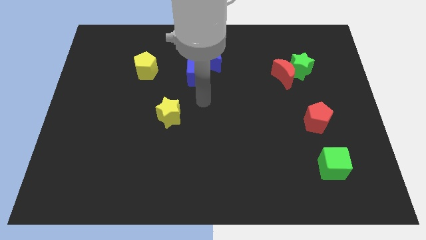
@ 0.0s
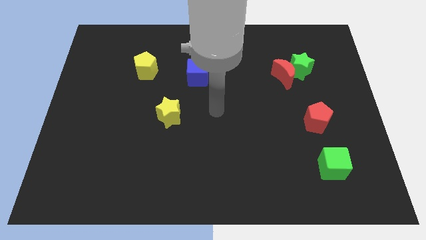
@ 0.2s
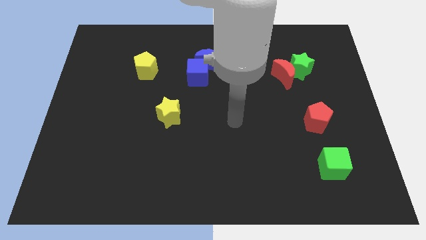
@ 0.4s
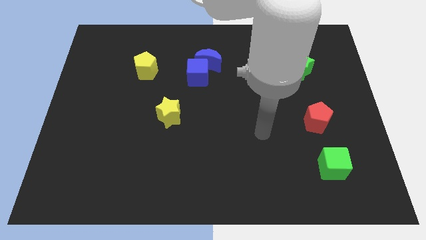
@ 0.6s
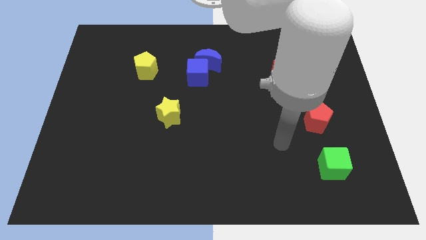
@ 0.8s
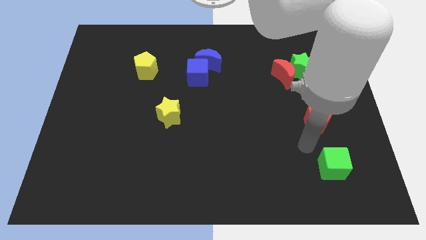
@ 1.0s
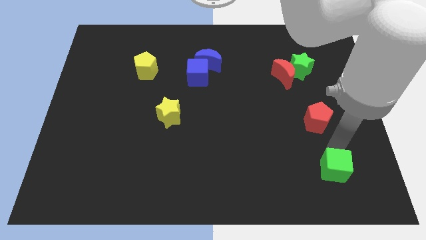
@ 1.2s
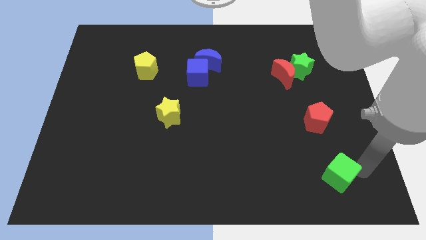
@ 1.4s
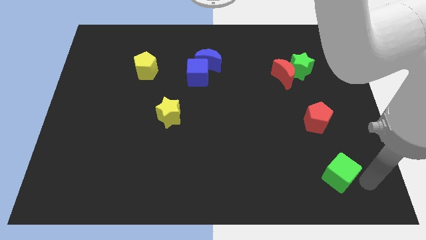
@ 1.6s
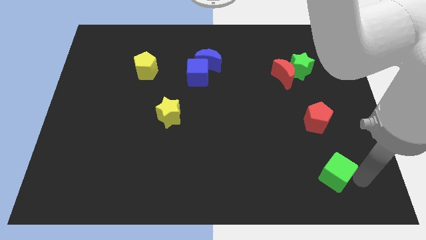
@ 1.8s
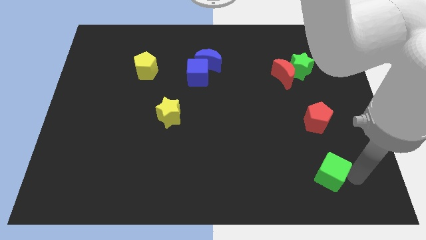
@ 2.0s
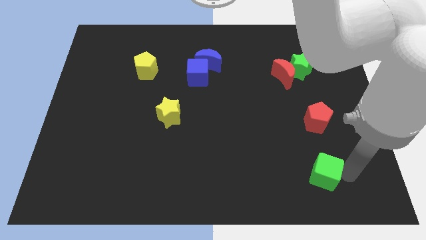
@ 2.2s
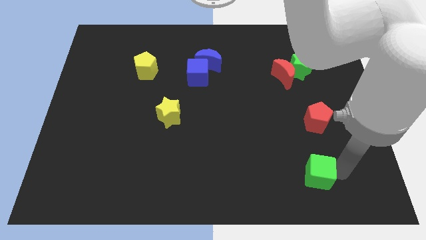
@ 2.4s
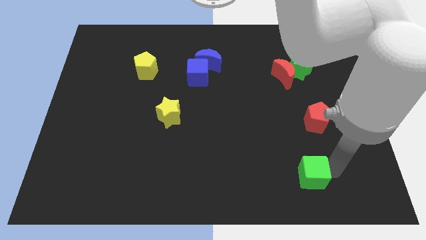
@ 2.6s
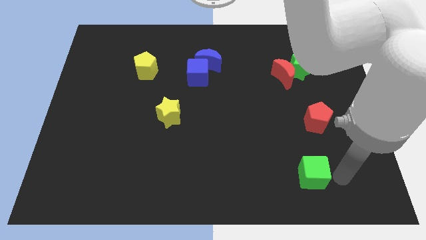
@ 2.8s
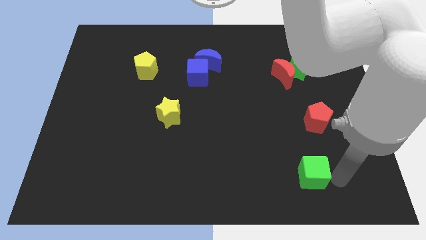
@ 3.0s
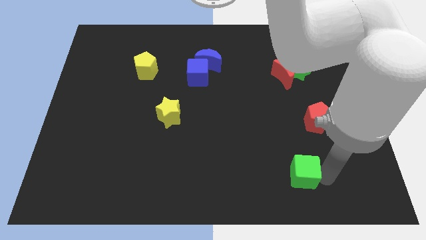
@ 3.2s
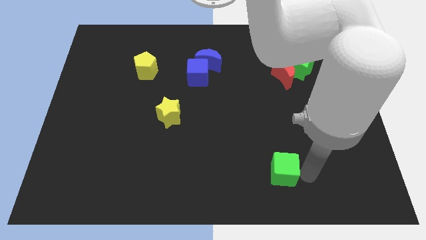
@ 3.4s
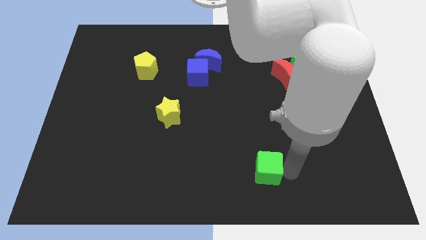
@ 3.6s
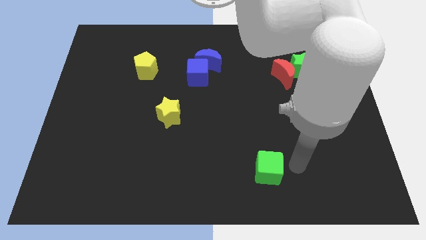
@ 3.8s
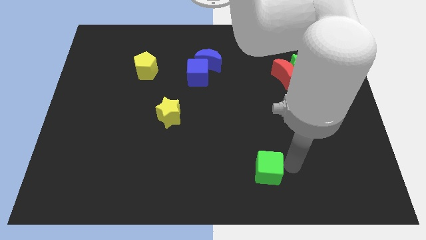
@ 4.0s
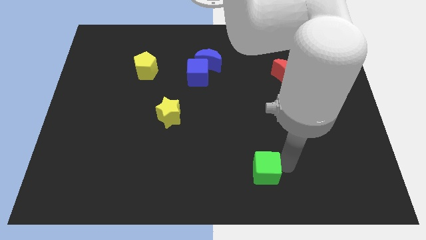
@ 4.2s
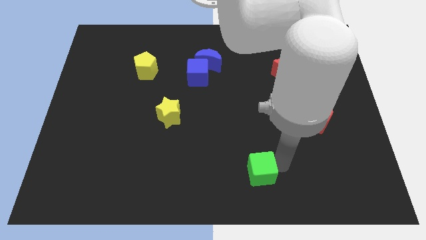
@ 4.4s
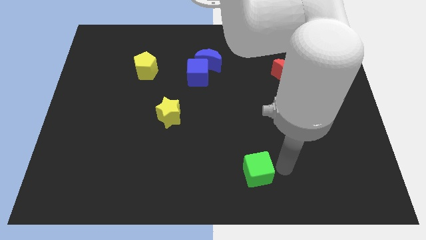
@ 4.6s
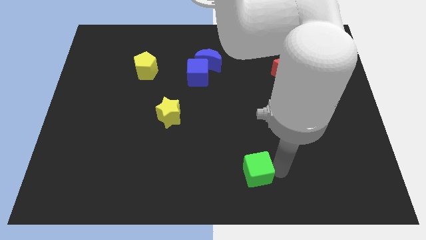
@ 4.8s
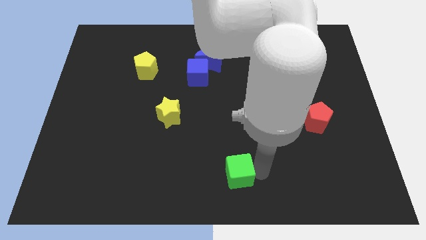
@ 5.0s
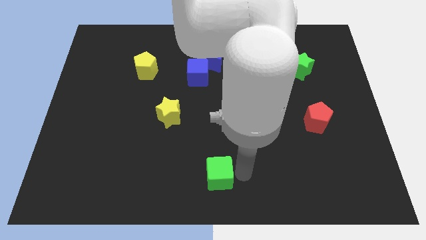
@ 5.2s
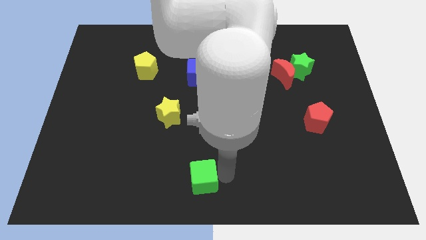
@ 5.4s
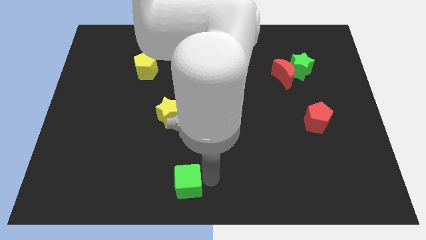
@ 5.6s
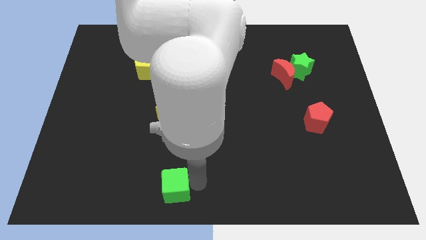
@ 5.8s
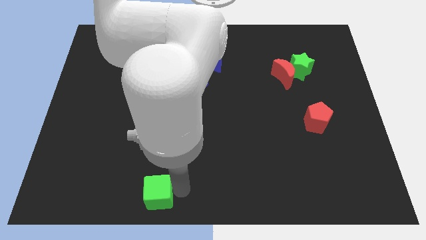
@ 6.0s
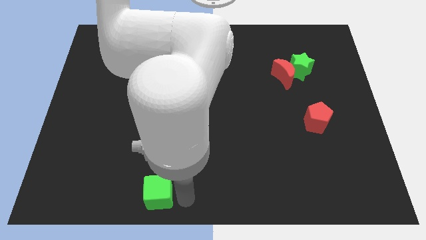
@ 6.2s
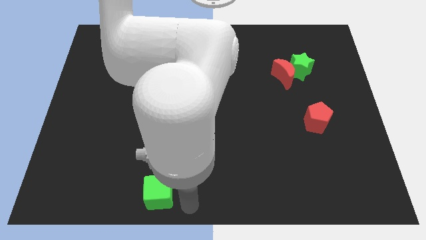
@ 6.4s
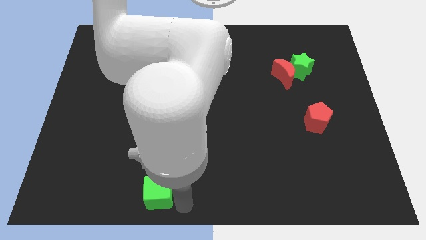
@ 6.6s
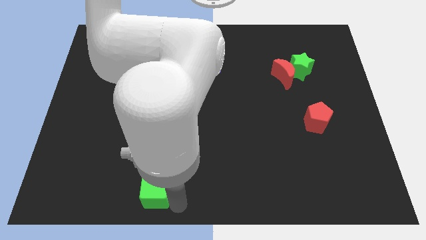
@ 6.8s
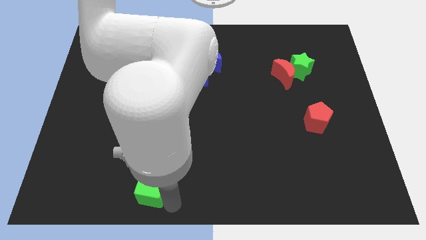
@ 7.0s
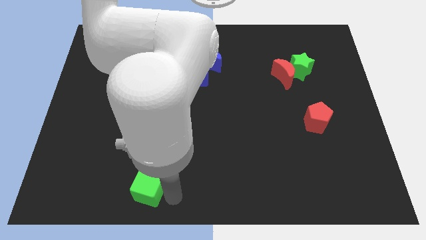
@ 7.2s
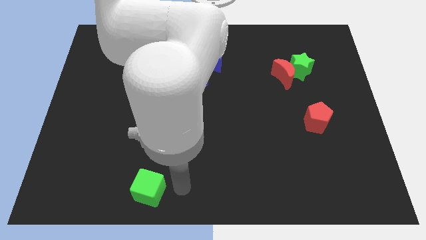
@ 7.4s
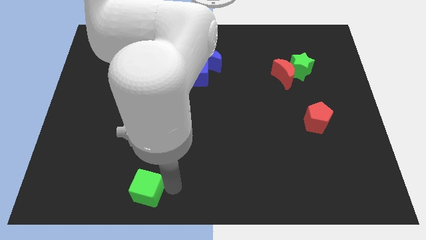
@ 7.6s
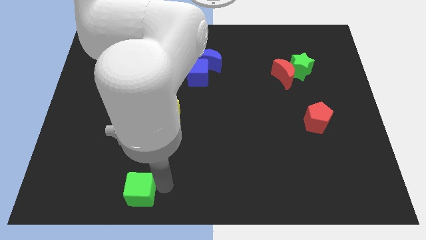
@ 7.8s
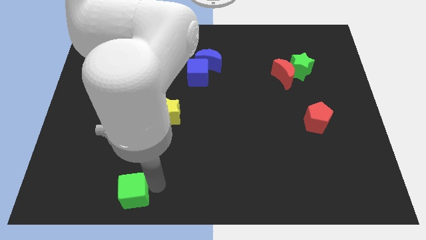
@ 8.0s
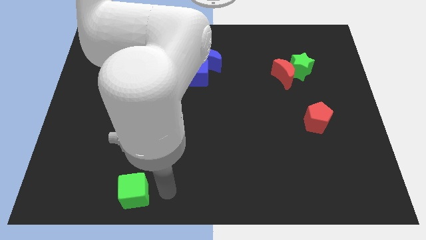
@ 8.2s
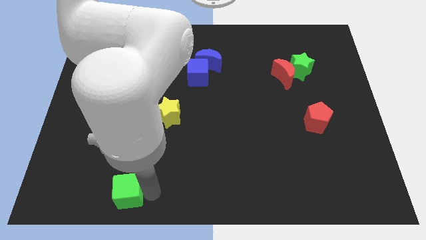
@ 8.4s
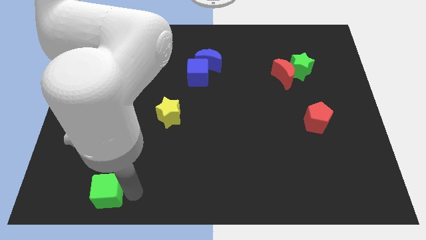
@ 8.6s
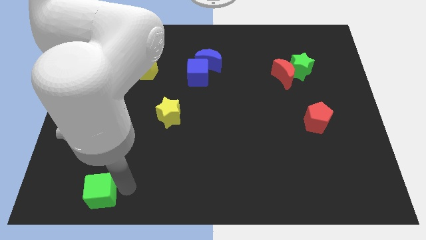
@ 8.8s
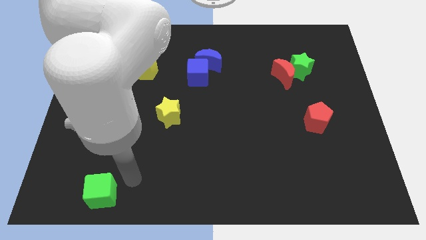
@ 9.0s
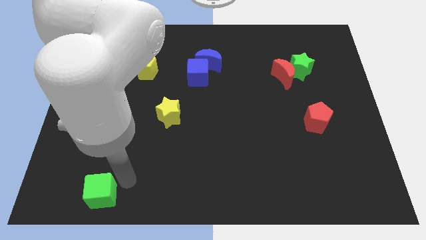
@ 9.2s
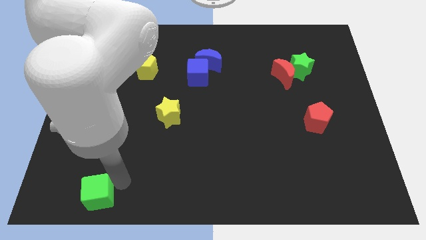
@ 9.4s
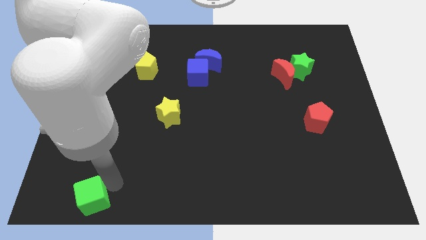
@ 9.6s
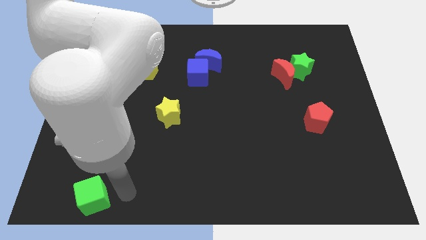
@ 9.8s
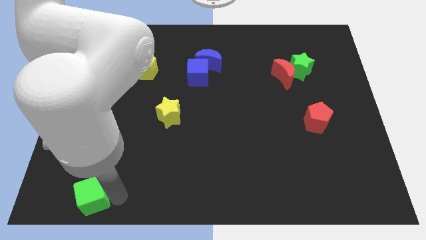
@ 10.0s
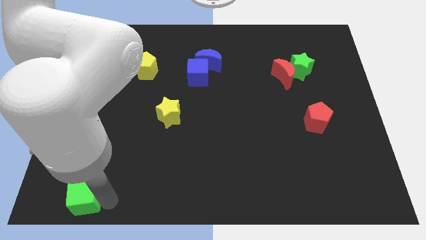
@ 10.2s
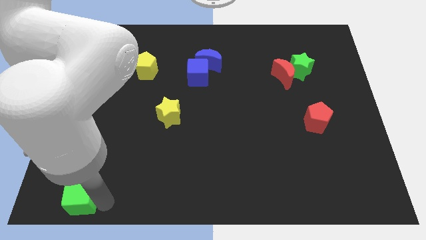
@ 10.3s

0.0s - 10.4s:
put the green cube to the bottom left corner
